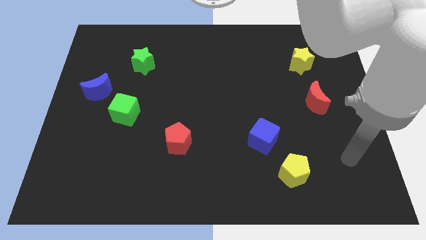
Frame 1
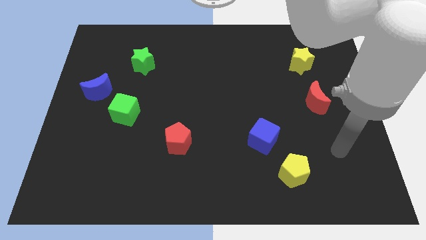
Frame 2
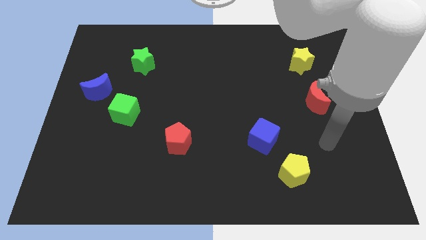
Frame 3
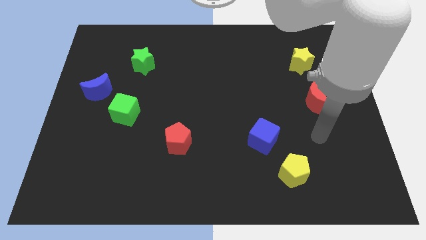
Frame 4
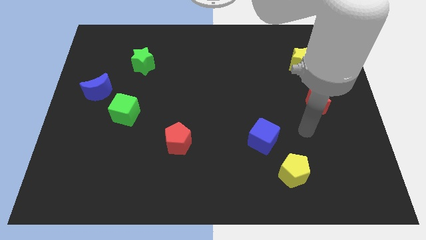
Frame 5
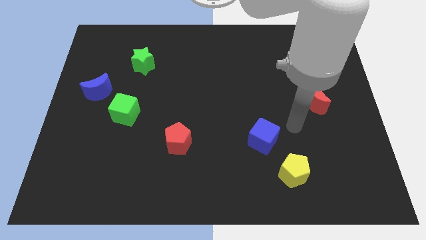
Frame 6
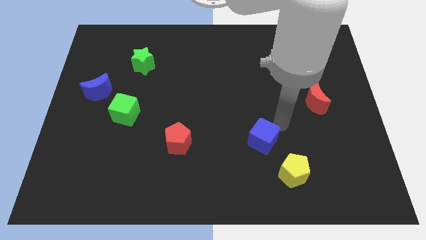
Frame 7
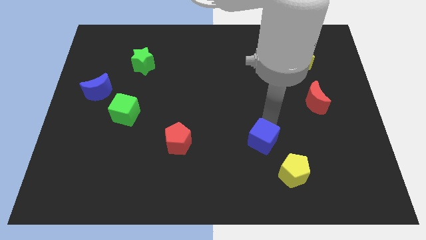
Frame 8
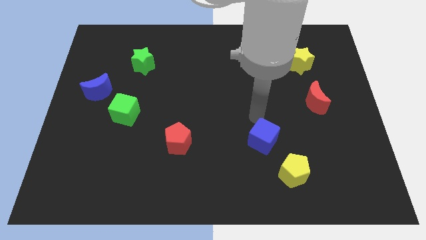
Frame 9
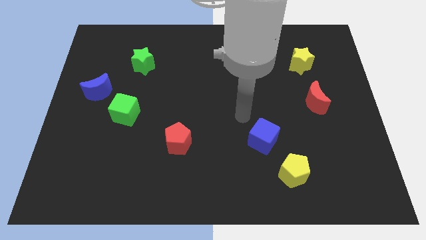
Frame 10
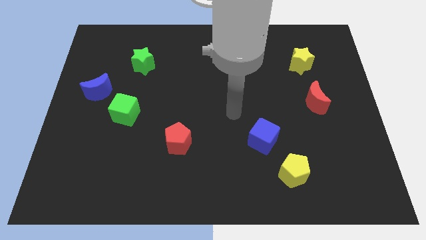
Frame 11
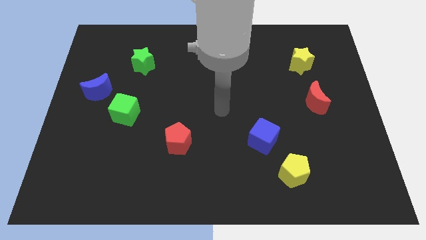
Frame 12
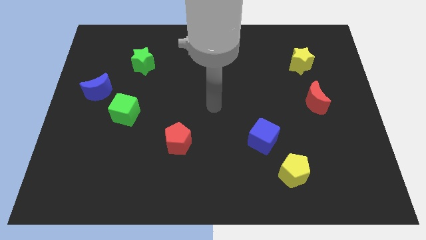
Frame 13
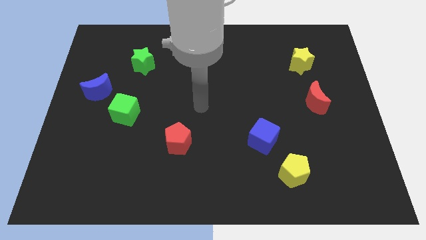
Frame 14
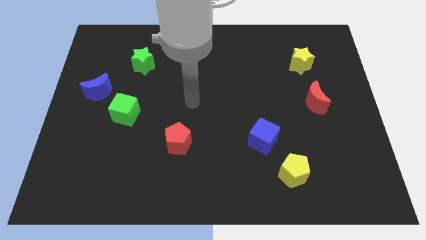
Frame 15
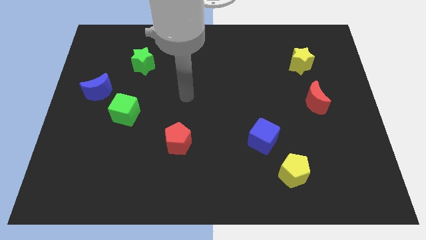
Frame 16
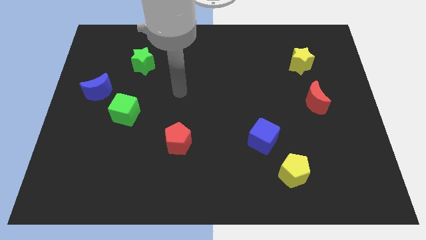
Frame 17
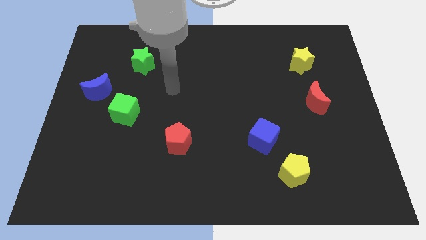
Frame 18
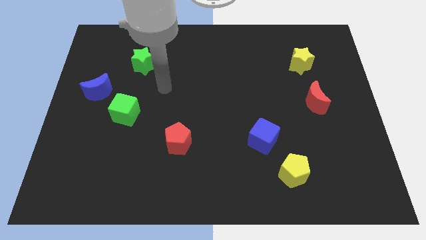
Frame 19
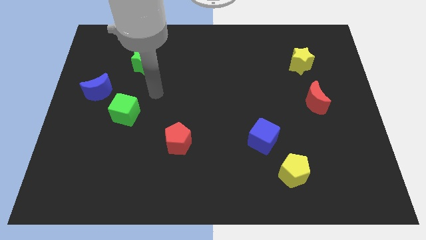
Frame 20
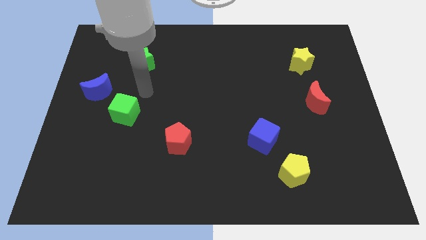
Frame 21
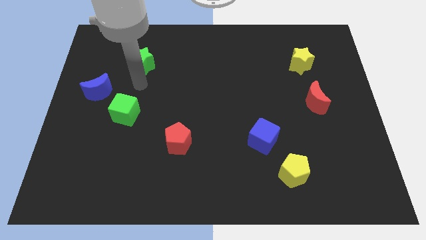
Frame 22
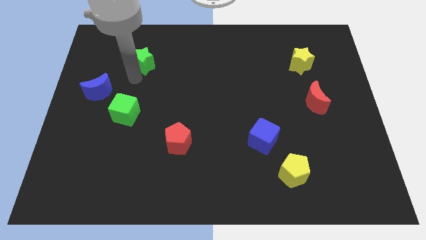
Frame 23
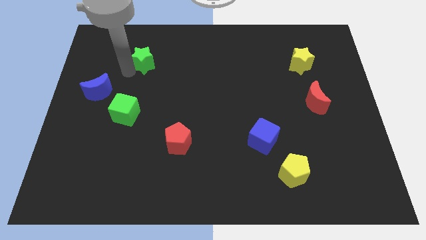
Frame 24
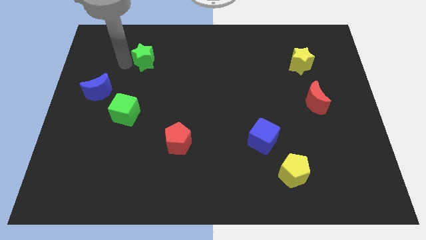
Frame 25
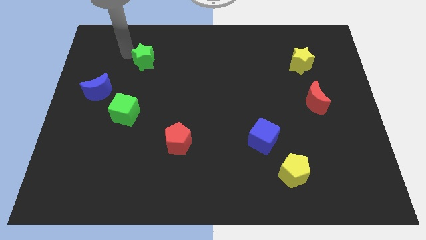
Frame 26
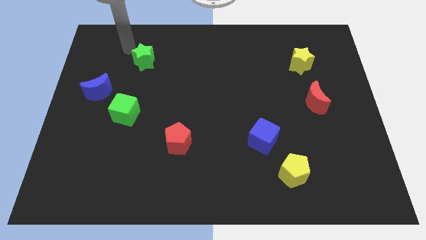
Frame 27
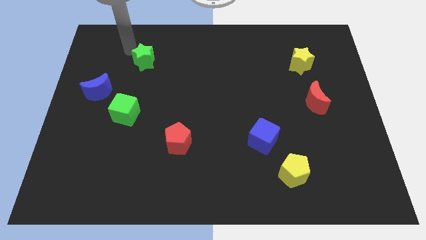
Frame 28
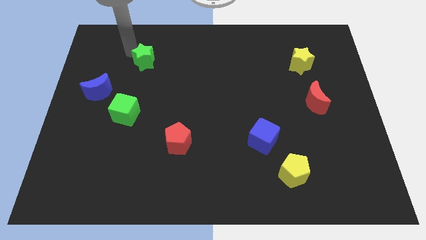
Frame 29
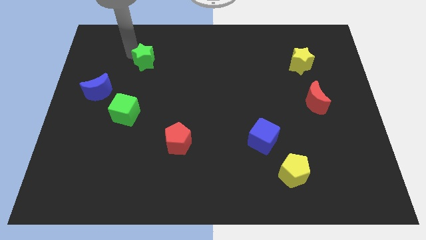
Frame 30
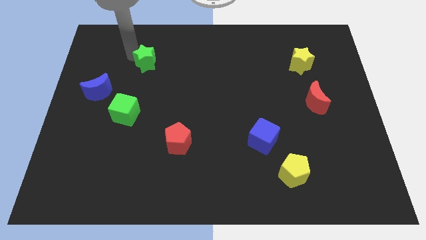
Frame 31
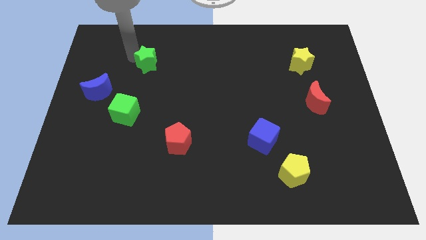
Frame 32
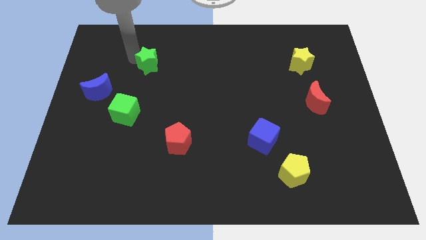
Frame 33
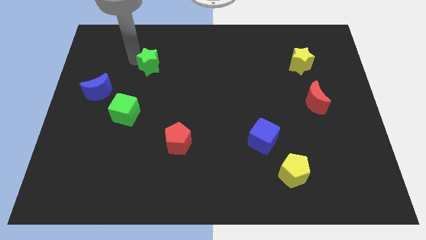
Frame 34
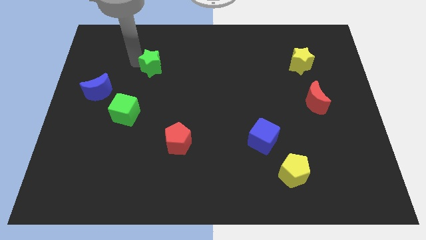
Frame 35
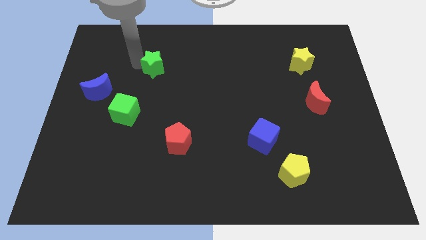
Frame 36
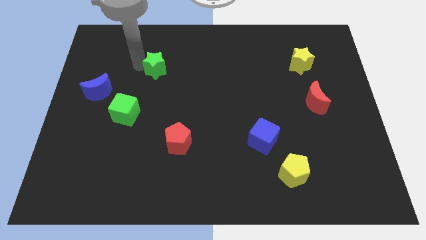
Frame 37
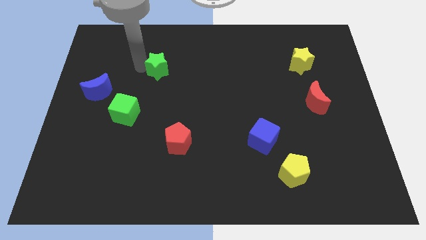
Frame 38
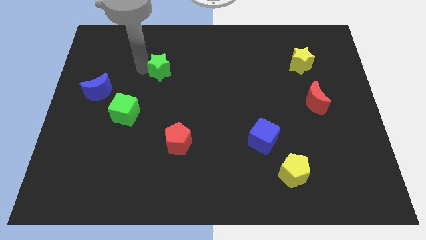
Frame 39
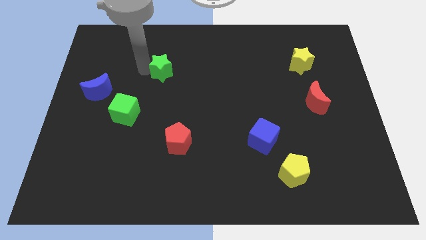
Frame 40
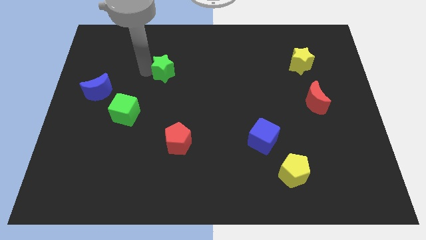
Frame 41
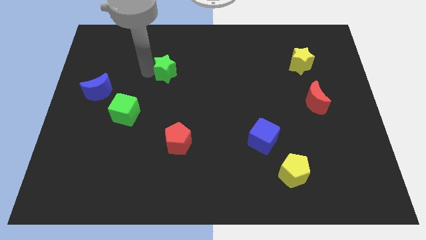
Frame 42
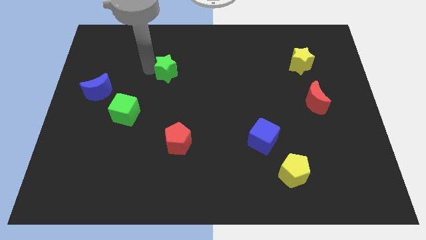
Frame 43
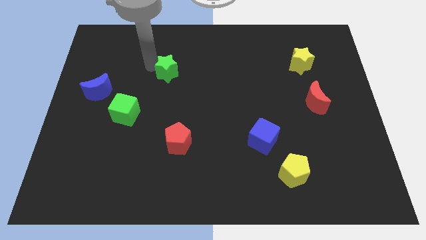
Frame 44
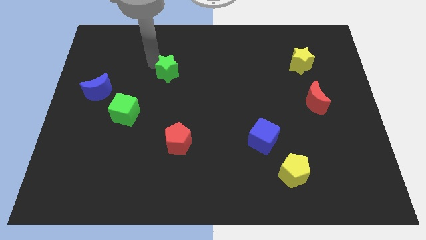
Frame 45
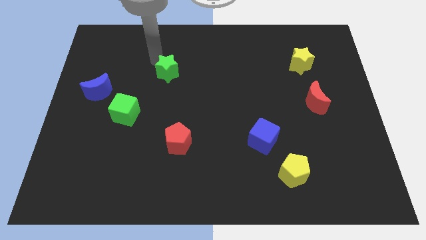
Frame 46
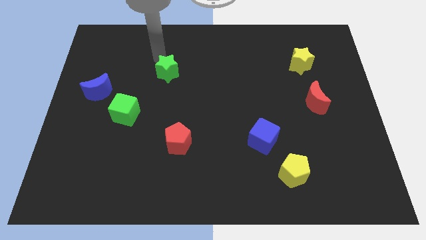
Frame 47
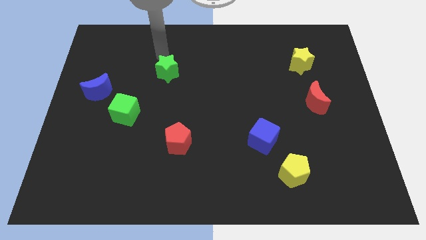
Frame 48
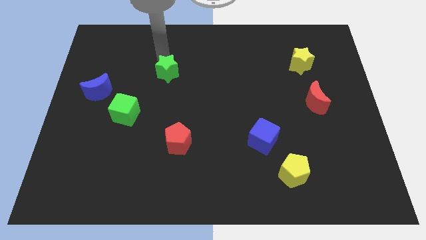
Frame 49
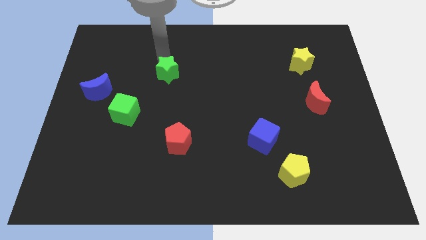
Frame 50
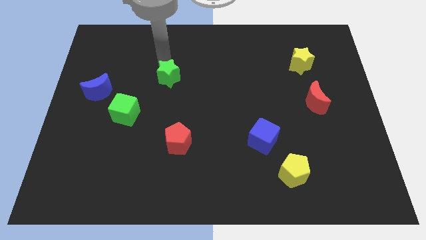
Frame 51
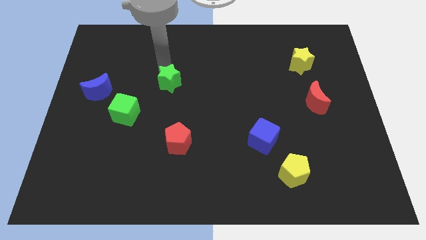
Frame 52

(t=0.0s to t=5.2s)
move the green star to the center
